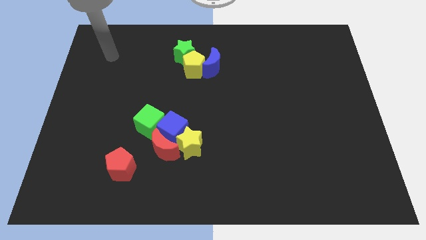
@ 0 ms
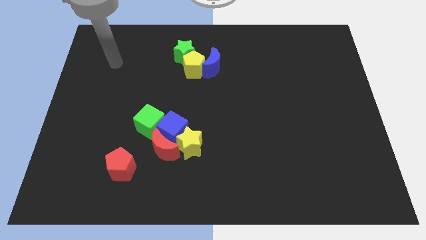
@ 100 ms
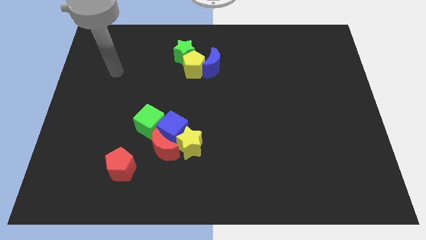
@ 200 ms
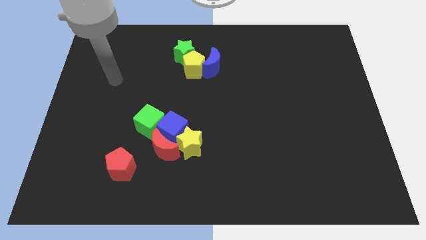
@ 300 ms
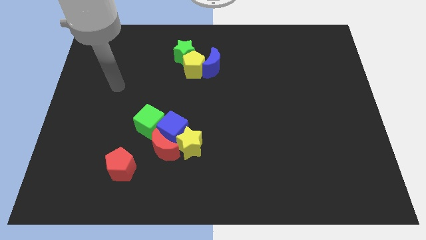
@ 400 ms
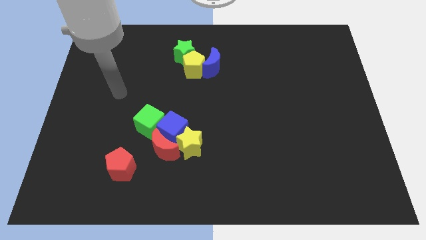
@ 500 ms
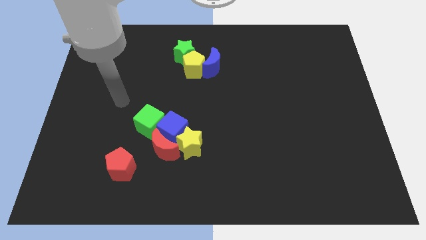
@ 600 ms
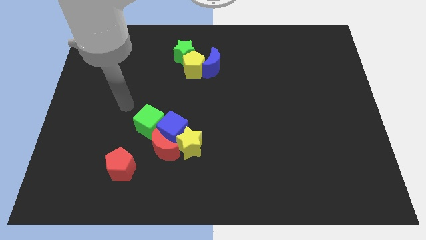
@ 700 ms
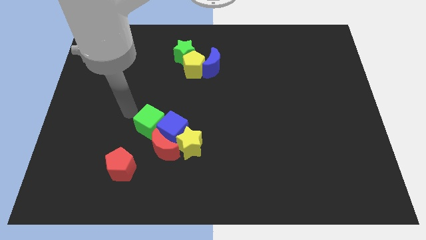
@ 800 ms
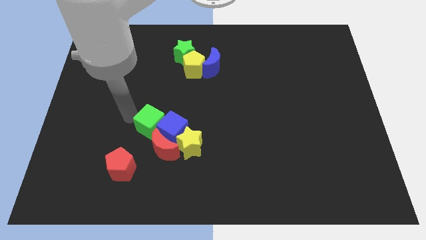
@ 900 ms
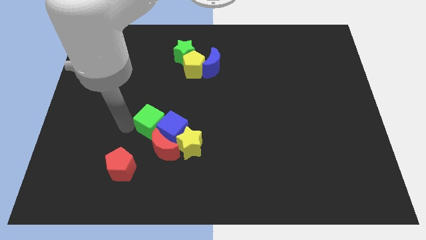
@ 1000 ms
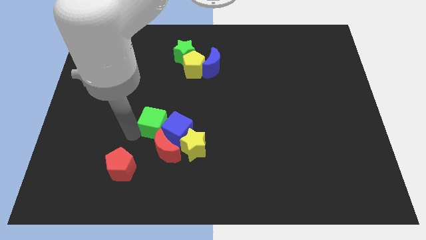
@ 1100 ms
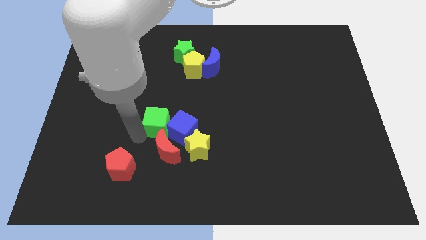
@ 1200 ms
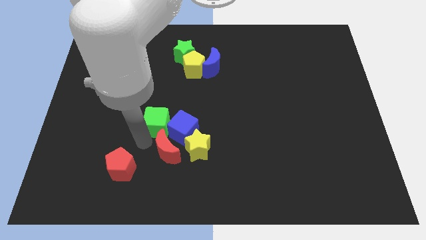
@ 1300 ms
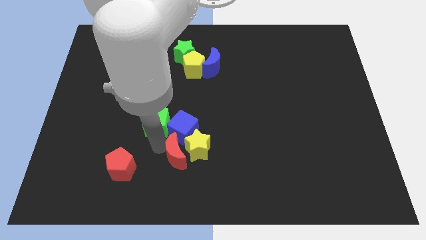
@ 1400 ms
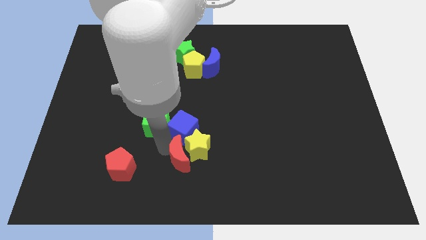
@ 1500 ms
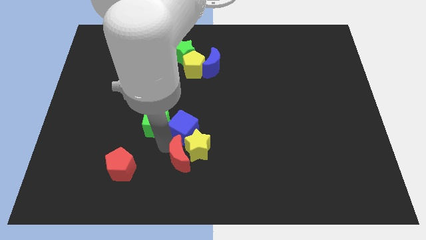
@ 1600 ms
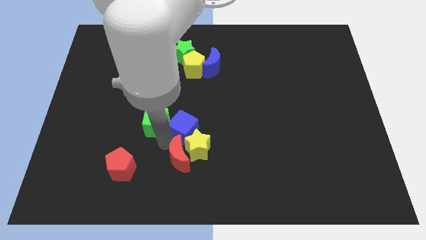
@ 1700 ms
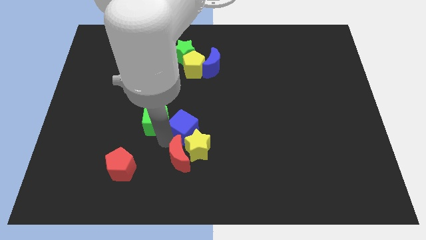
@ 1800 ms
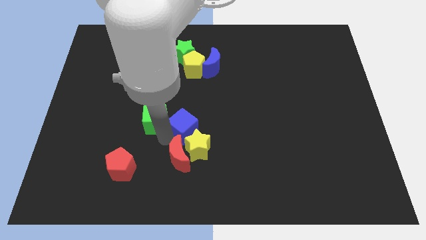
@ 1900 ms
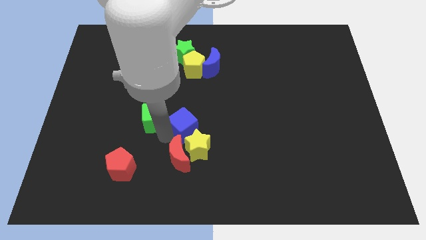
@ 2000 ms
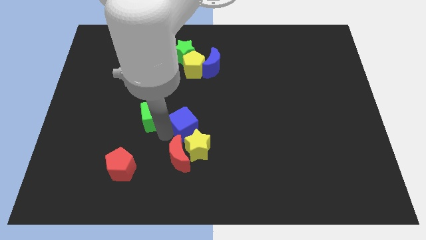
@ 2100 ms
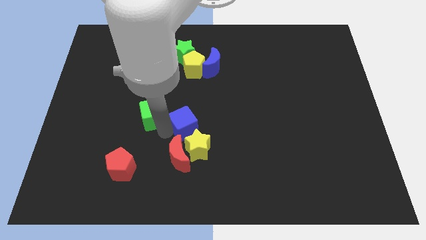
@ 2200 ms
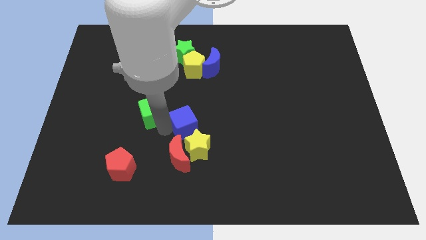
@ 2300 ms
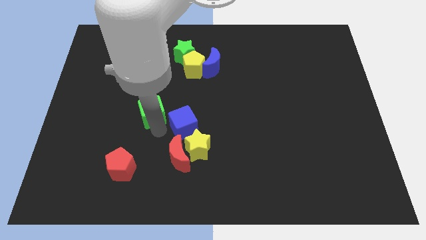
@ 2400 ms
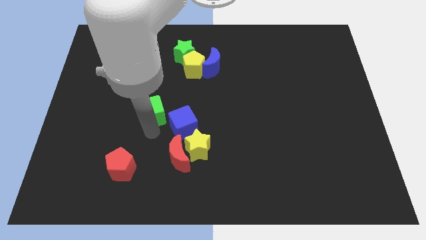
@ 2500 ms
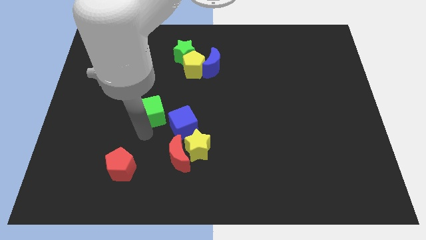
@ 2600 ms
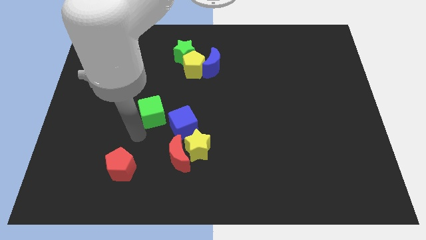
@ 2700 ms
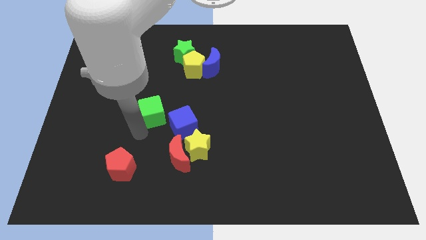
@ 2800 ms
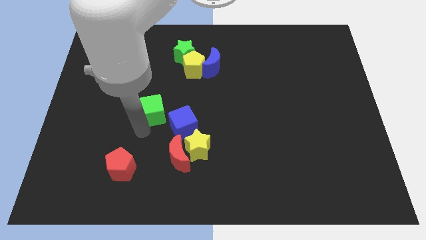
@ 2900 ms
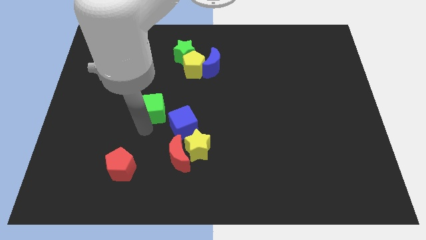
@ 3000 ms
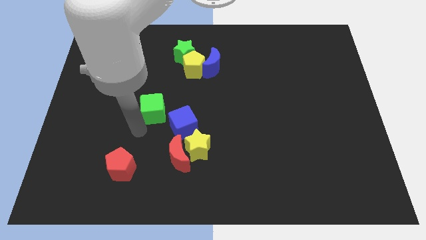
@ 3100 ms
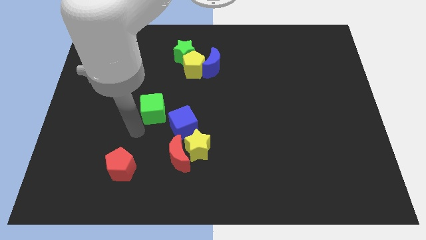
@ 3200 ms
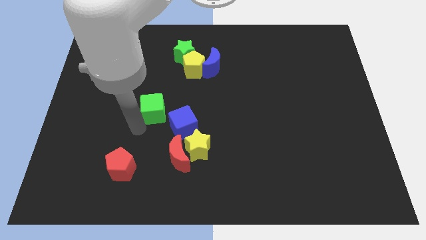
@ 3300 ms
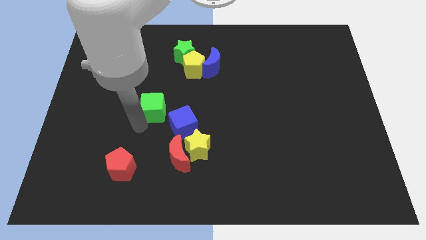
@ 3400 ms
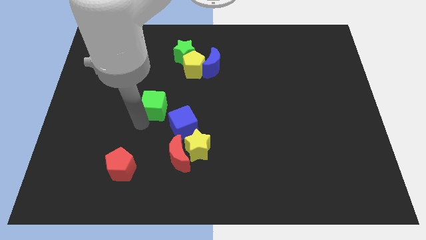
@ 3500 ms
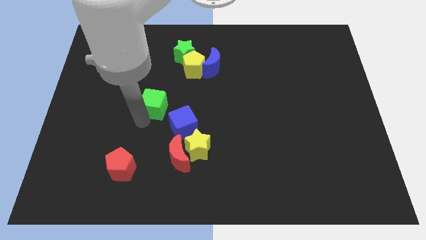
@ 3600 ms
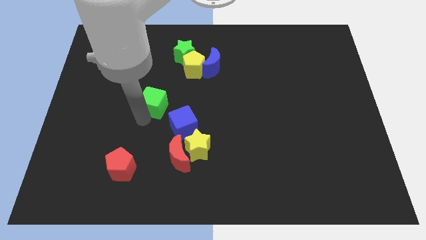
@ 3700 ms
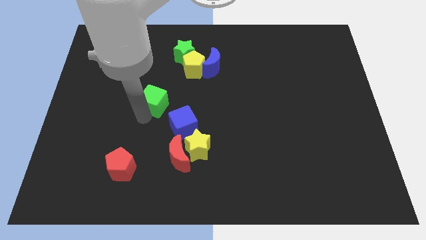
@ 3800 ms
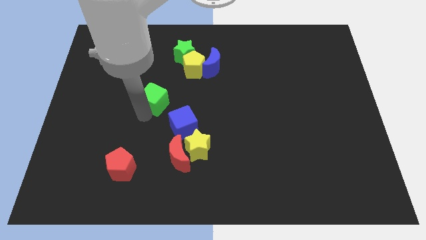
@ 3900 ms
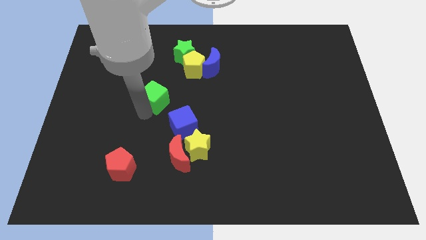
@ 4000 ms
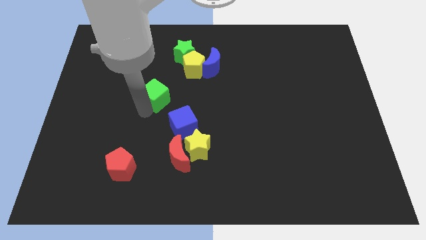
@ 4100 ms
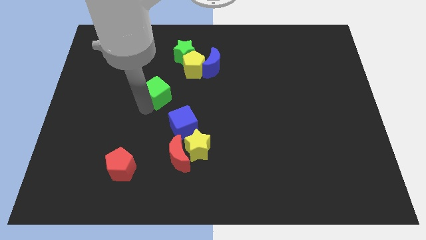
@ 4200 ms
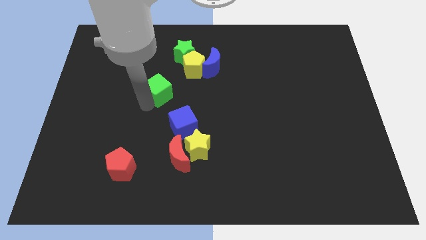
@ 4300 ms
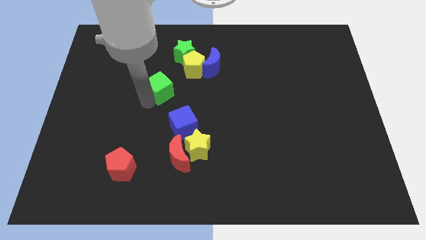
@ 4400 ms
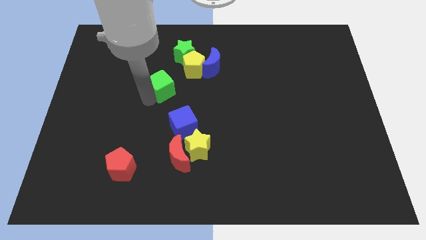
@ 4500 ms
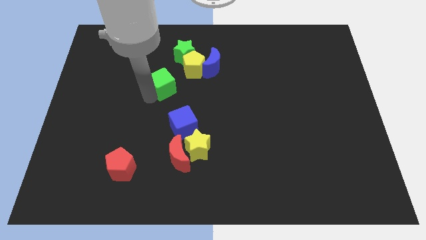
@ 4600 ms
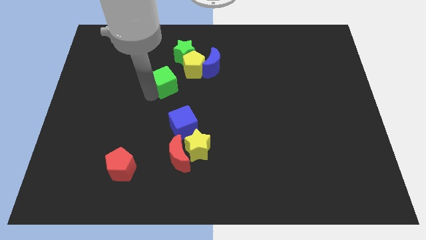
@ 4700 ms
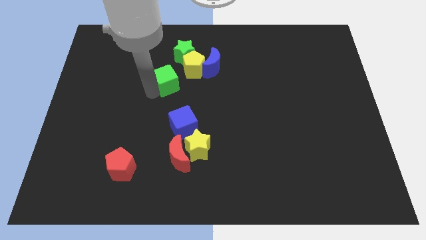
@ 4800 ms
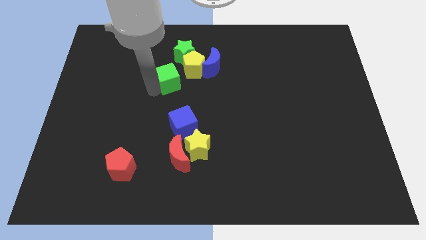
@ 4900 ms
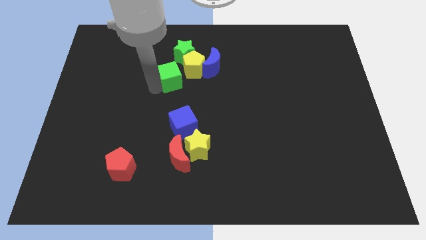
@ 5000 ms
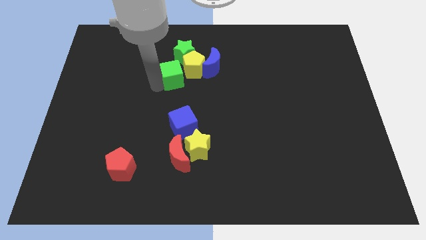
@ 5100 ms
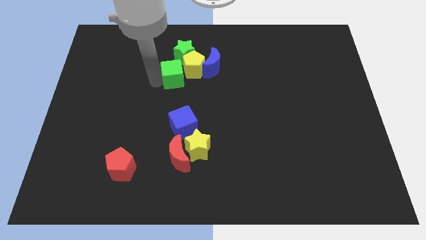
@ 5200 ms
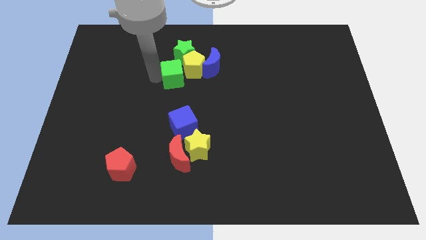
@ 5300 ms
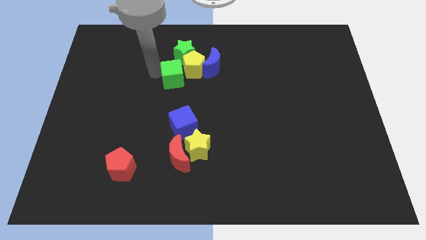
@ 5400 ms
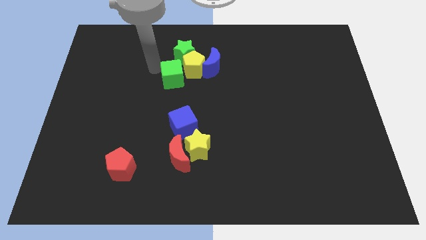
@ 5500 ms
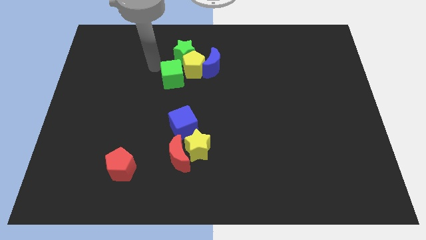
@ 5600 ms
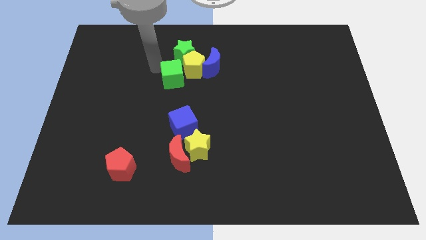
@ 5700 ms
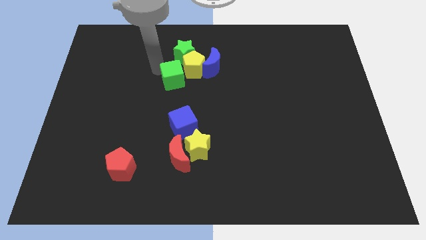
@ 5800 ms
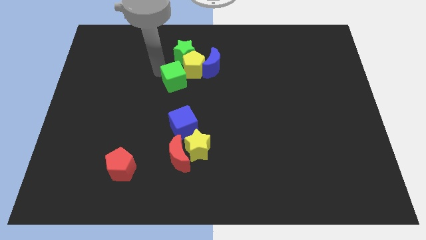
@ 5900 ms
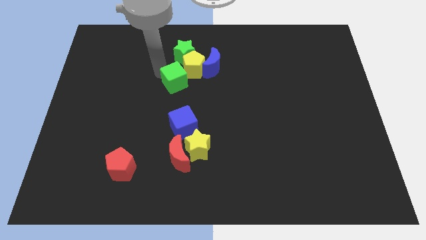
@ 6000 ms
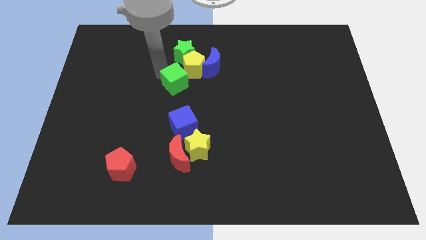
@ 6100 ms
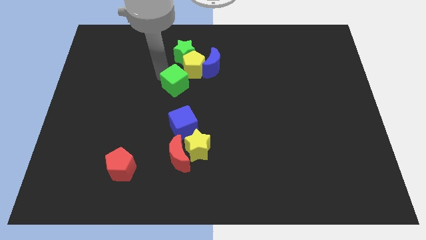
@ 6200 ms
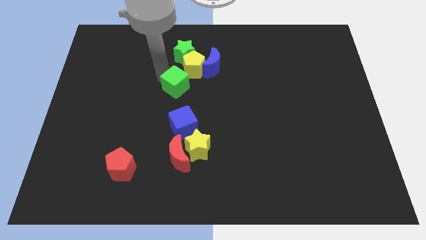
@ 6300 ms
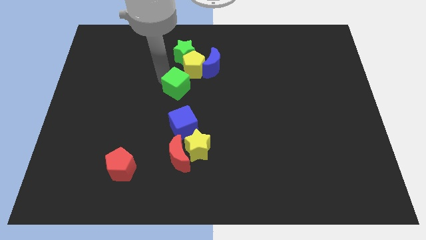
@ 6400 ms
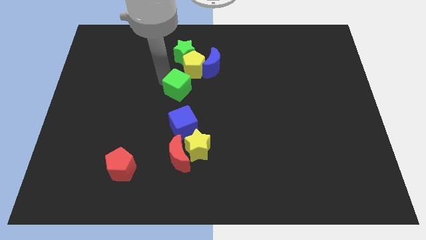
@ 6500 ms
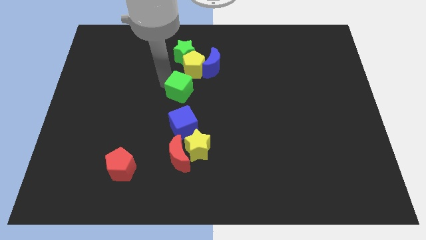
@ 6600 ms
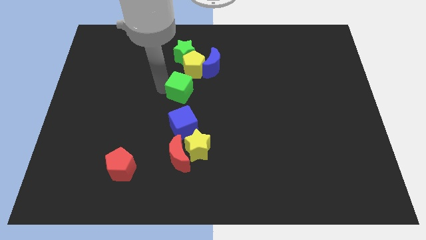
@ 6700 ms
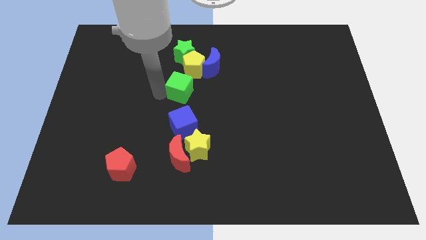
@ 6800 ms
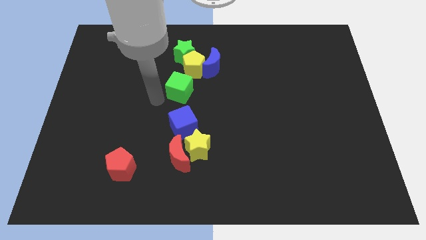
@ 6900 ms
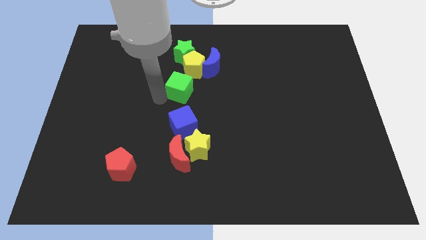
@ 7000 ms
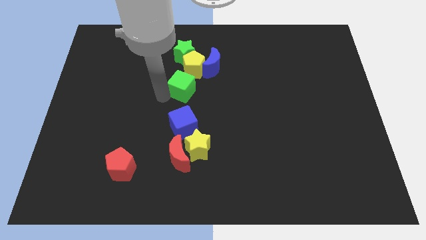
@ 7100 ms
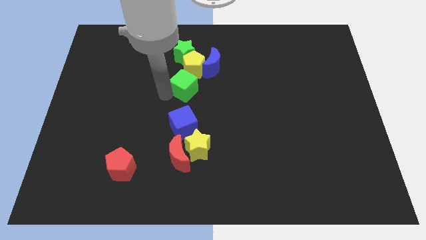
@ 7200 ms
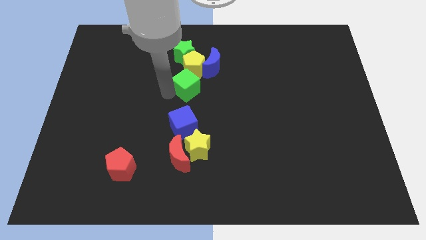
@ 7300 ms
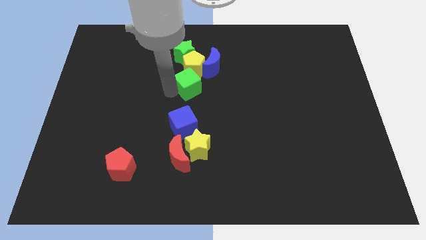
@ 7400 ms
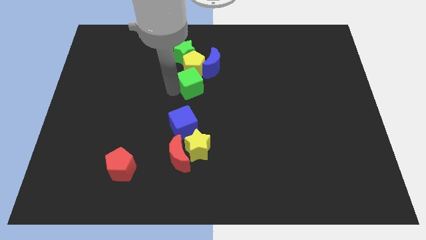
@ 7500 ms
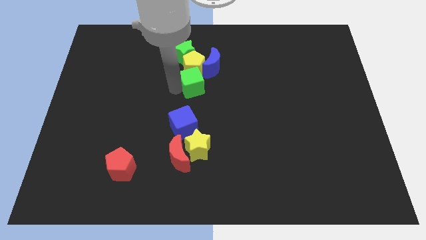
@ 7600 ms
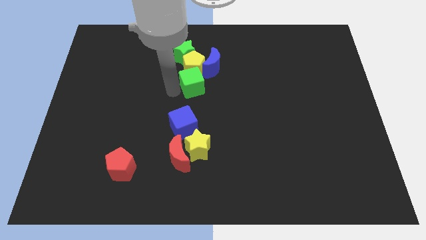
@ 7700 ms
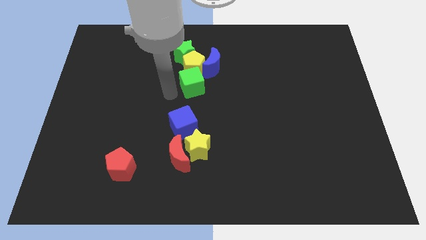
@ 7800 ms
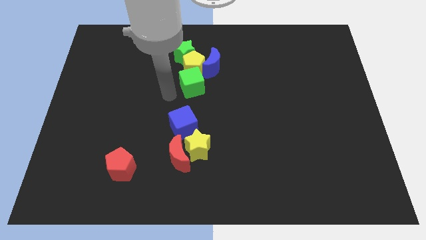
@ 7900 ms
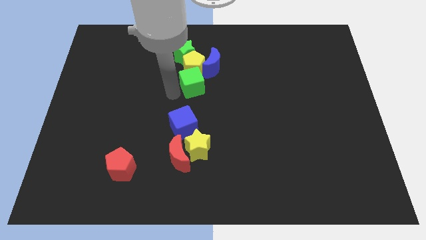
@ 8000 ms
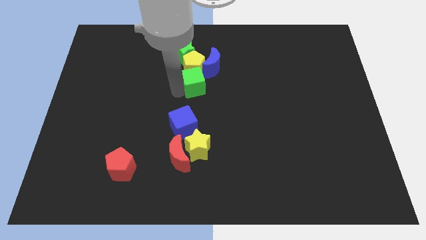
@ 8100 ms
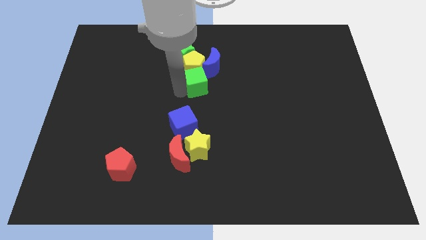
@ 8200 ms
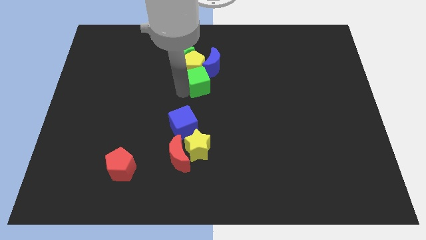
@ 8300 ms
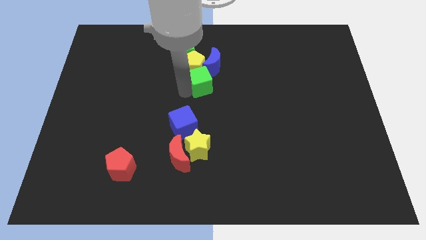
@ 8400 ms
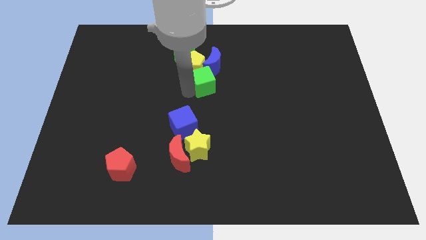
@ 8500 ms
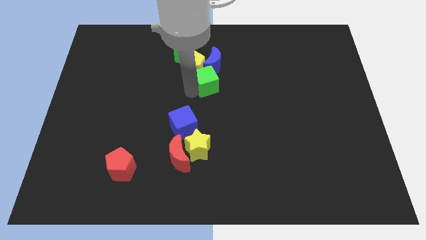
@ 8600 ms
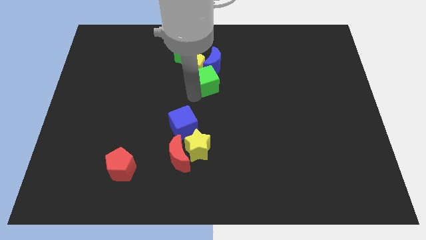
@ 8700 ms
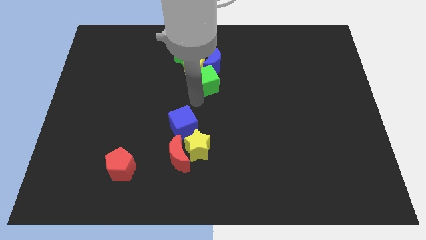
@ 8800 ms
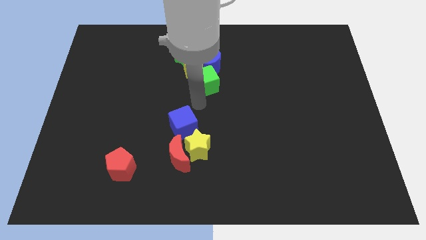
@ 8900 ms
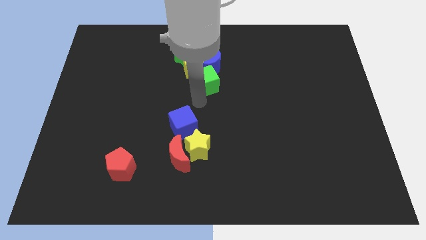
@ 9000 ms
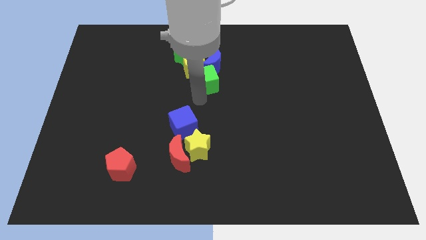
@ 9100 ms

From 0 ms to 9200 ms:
slide the green cube to the blue moon
